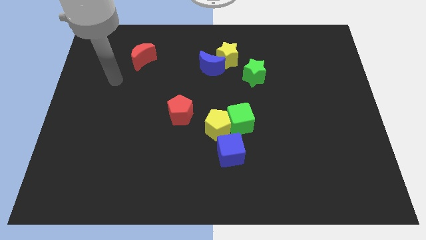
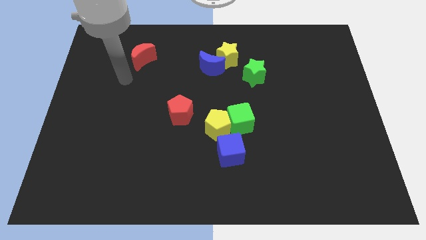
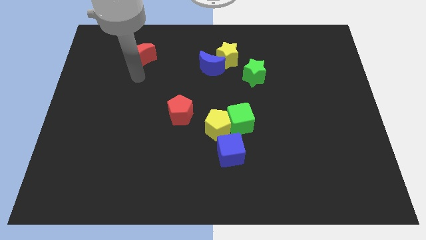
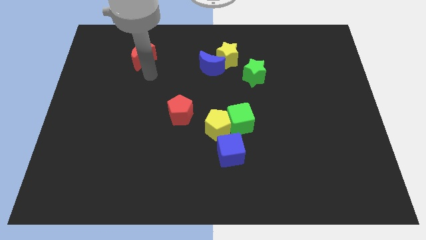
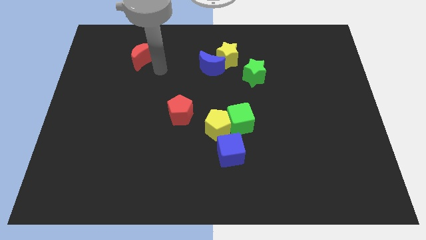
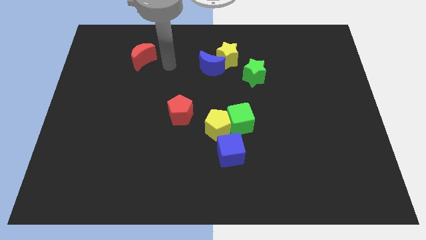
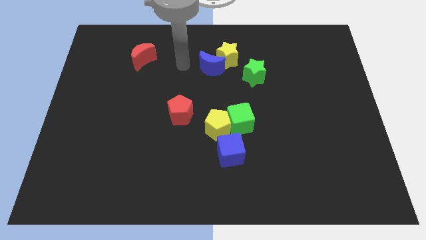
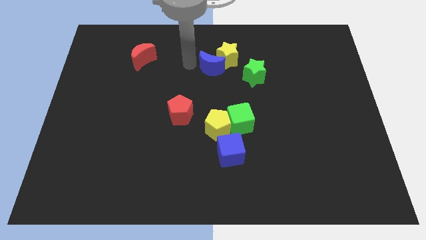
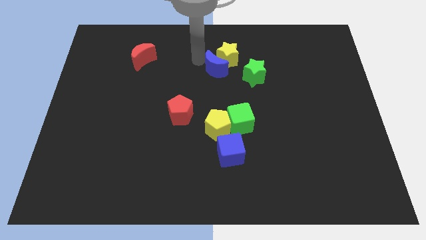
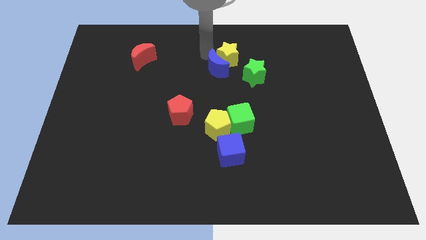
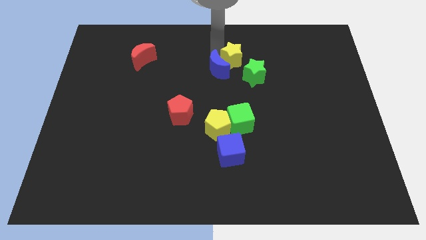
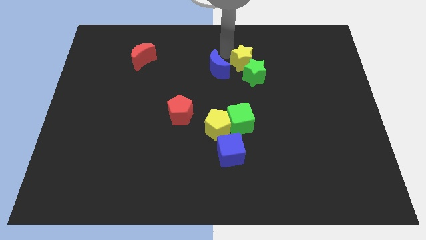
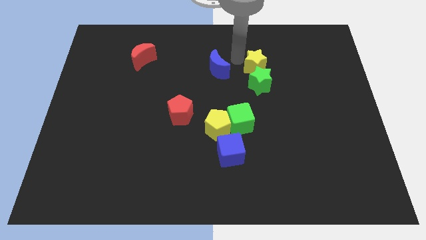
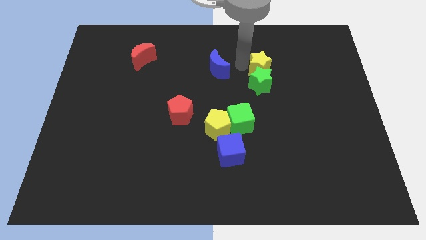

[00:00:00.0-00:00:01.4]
separate the blue moon from the yellow star

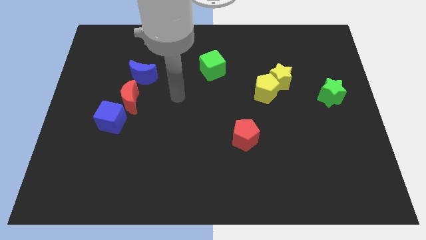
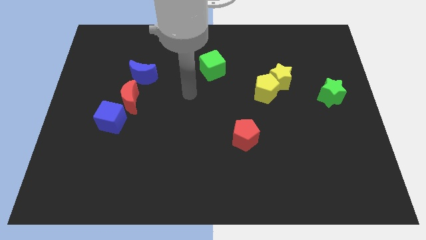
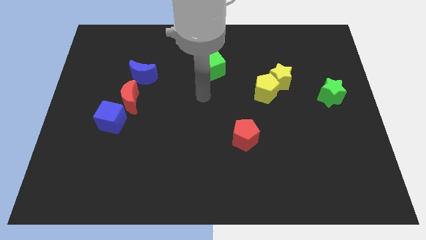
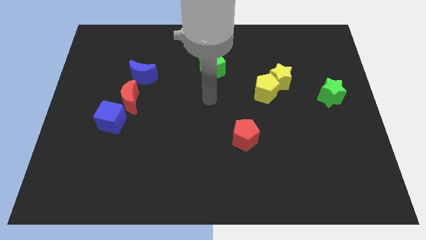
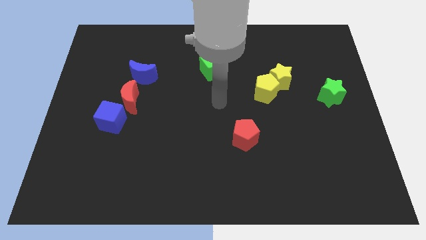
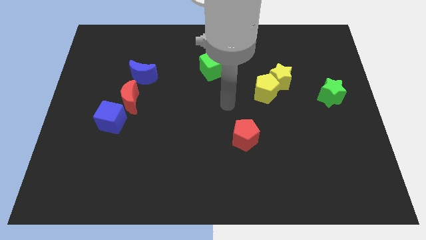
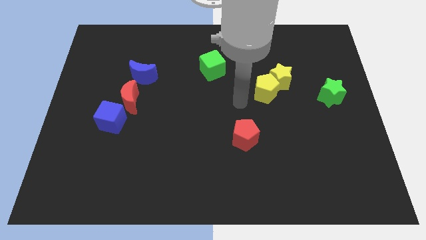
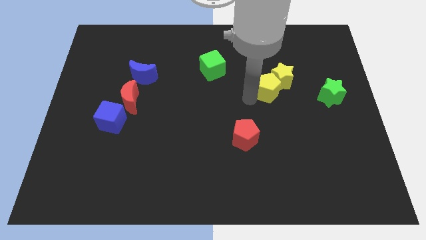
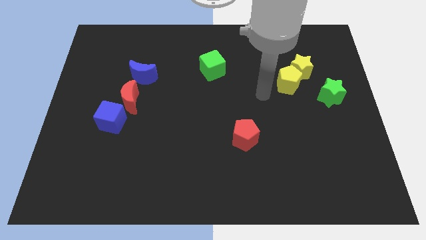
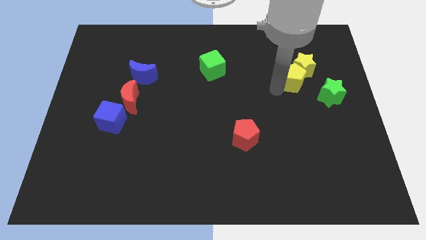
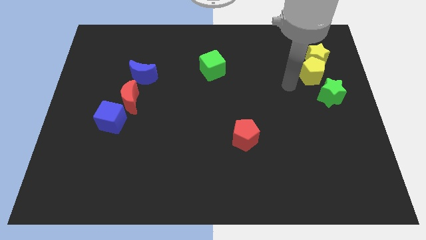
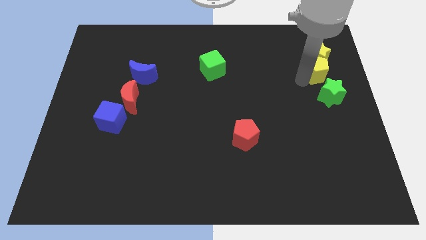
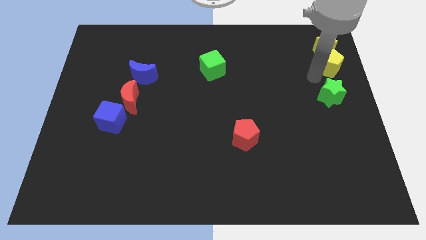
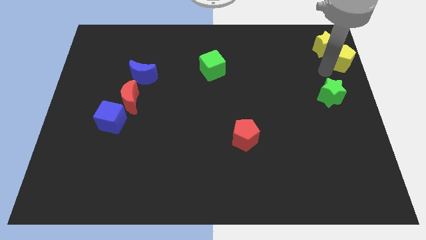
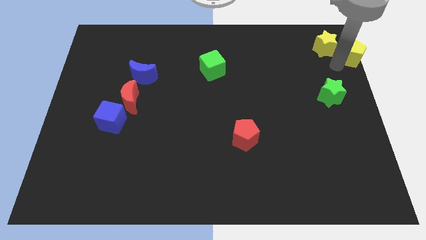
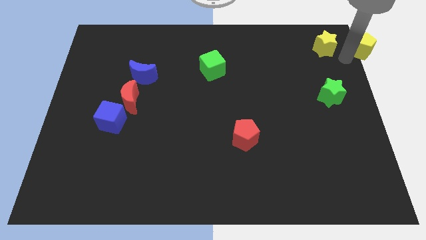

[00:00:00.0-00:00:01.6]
separate the yellow star from the yellow pentagon

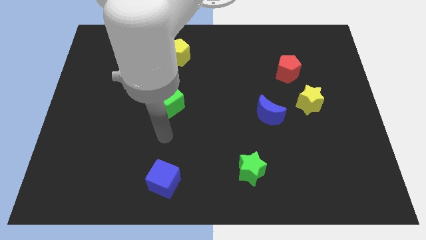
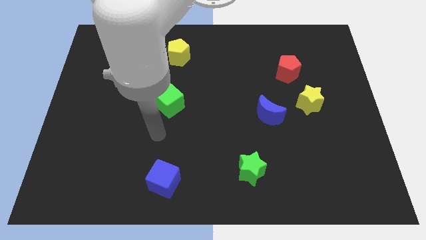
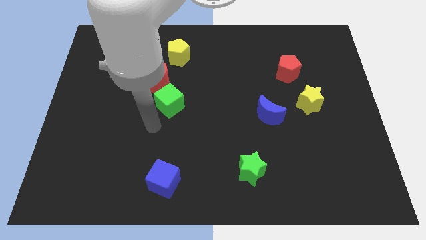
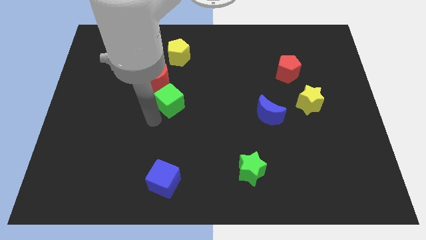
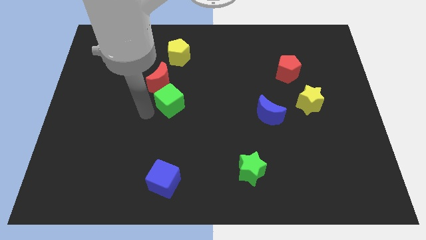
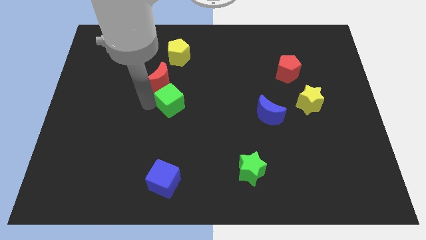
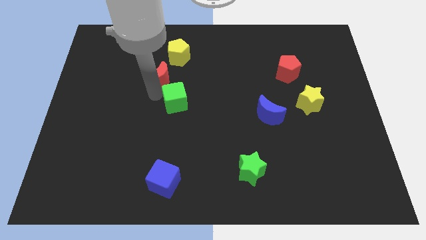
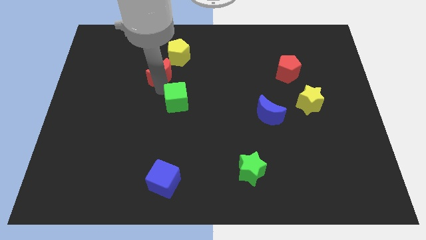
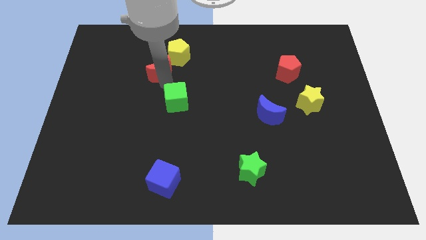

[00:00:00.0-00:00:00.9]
move the green cube away from the red moon

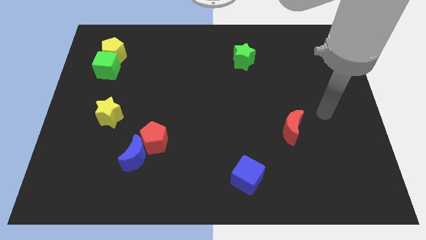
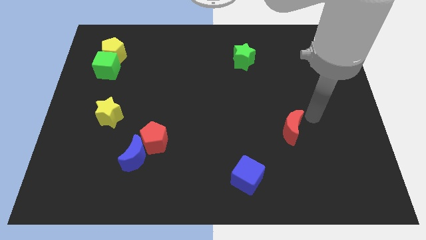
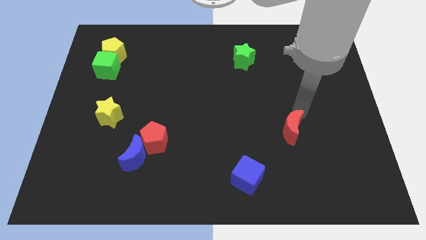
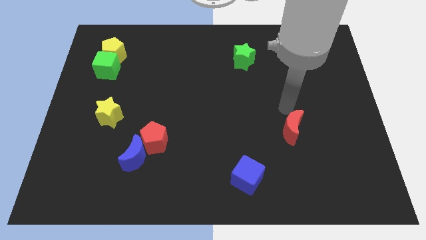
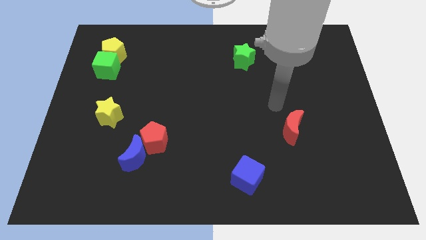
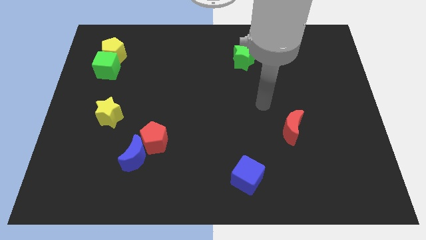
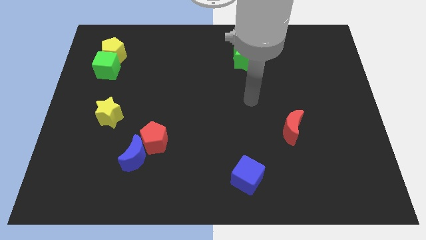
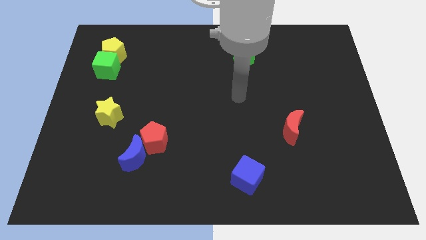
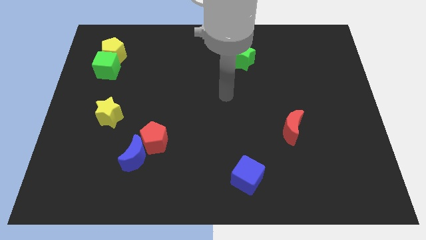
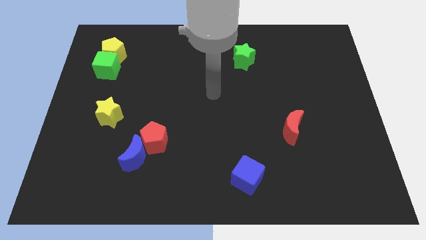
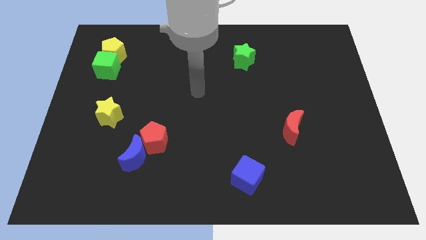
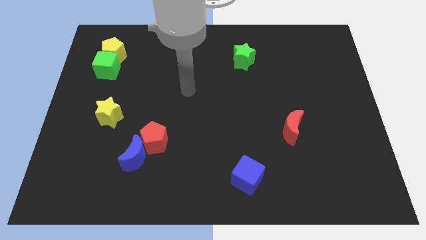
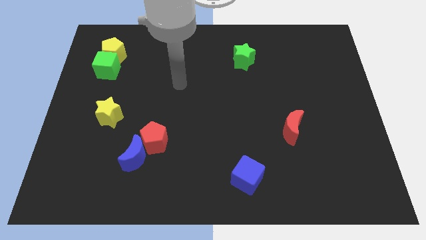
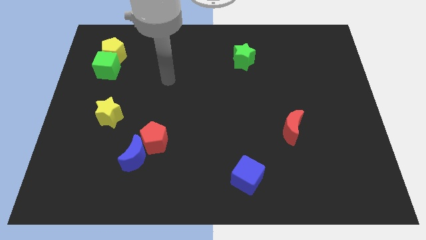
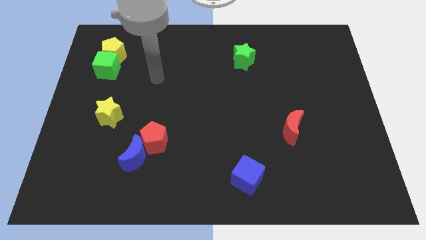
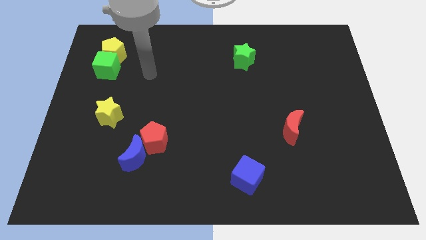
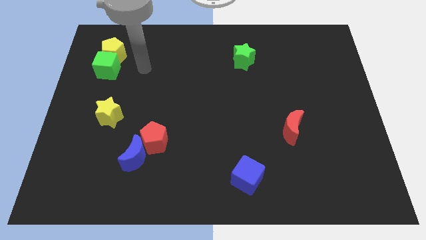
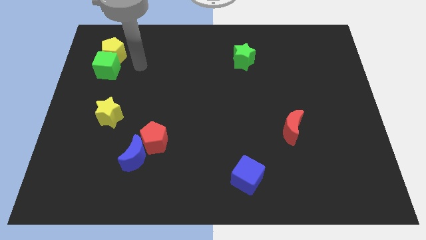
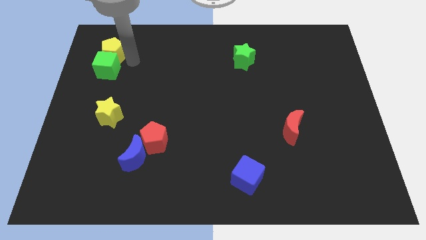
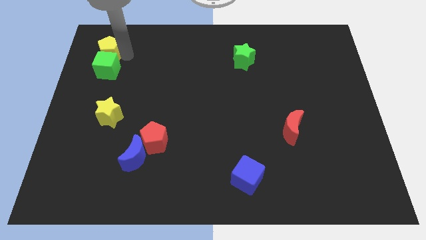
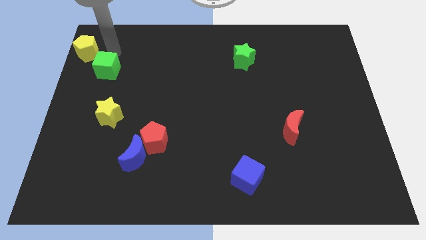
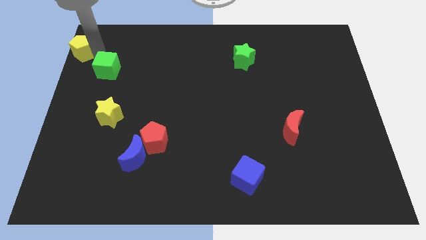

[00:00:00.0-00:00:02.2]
separate the green cube from the yellow pentagon

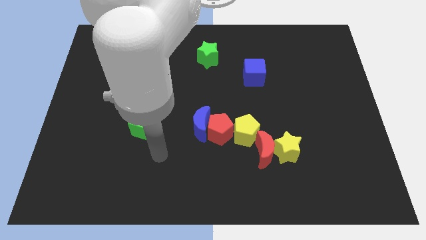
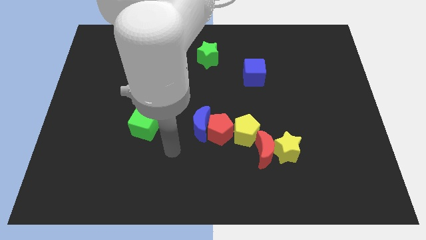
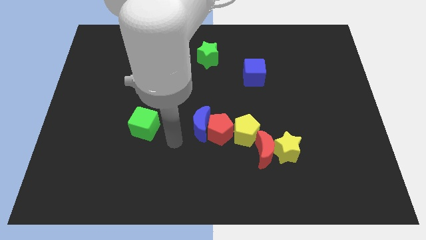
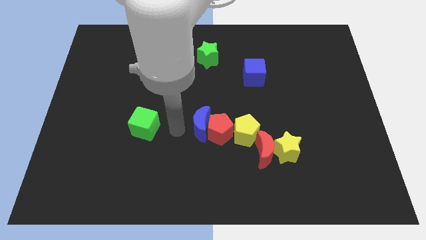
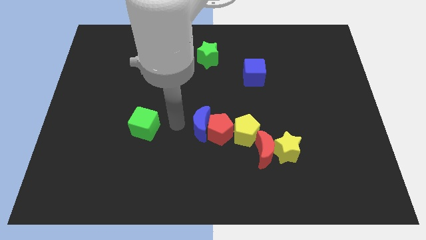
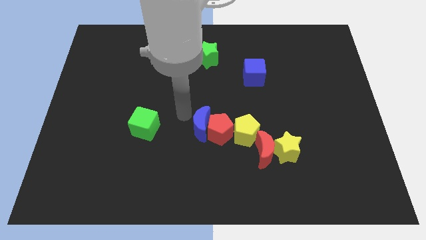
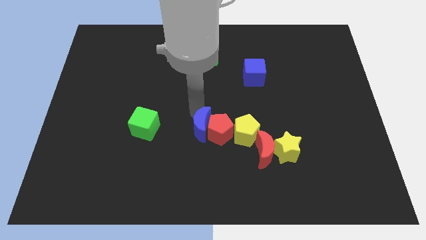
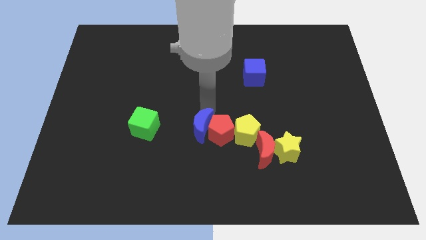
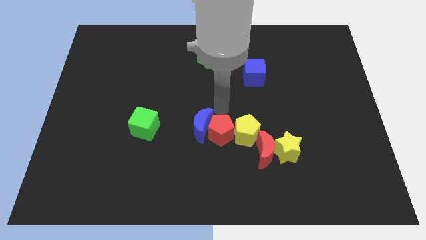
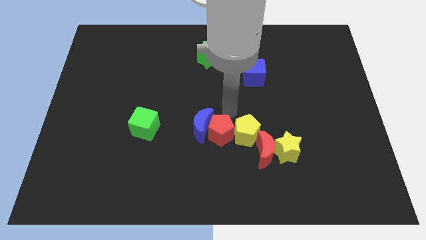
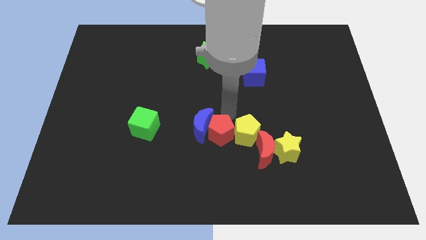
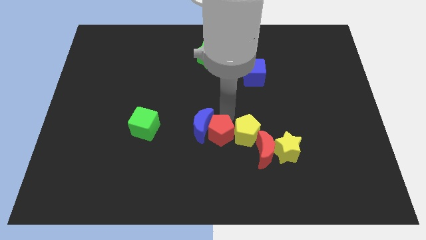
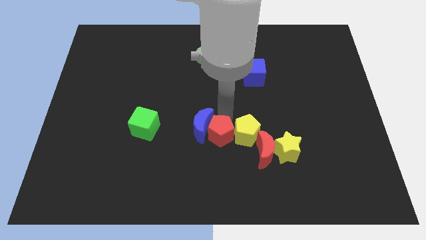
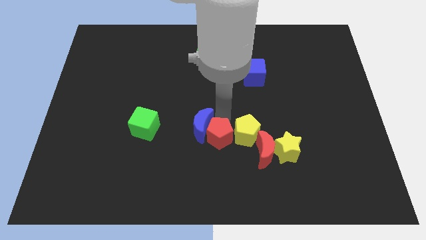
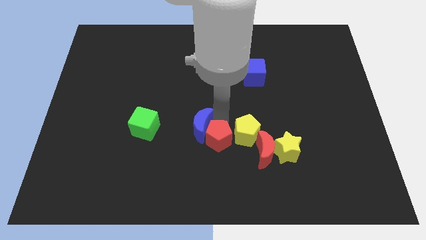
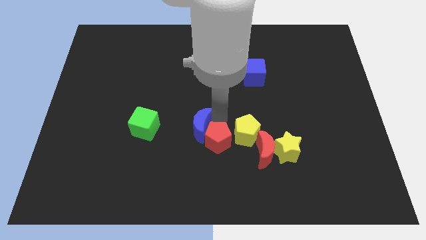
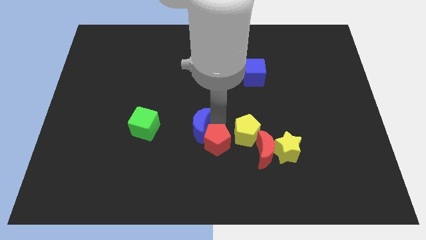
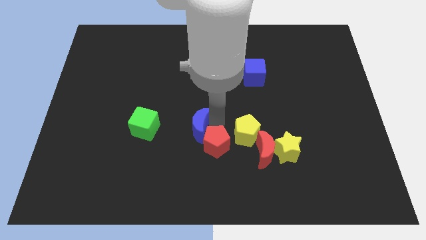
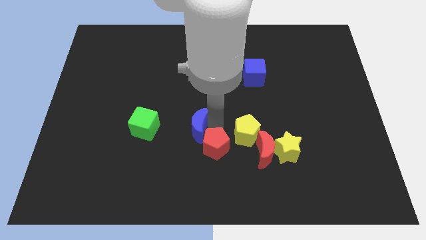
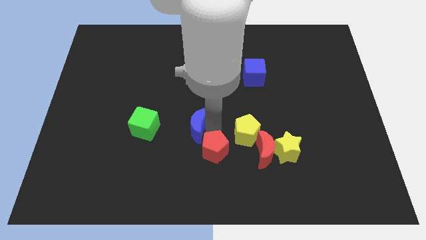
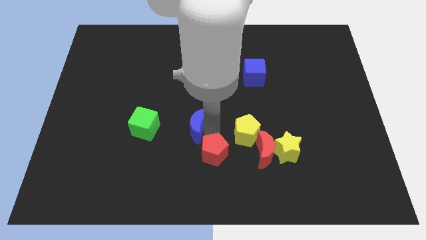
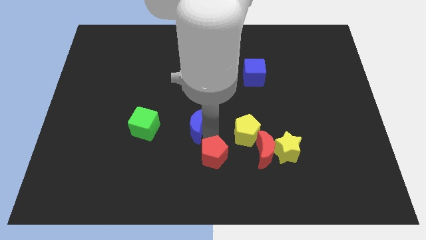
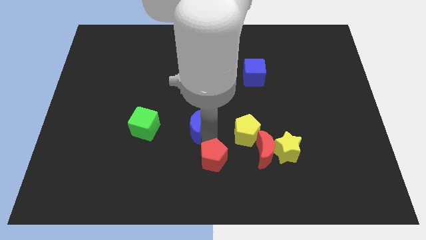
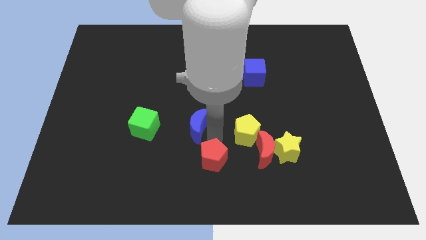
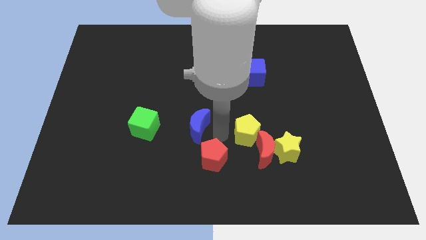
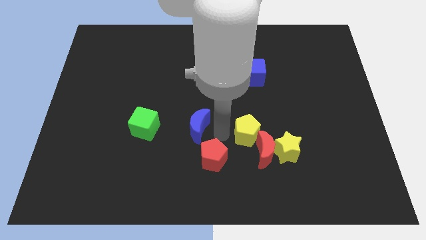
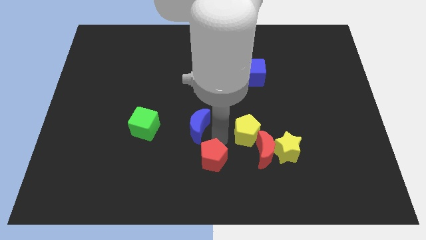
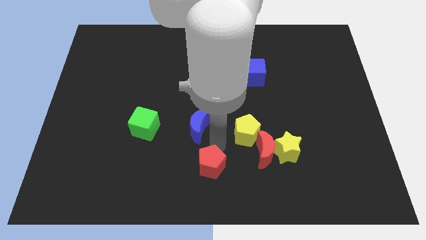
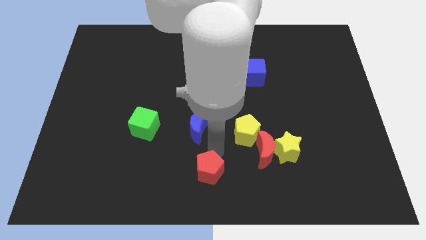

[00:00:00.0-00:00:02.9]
pull the red pentagon apart from the blue moon and yellow pentagon

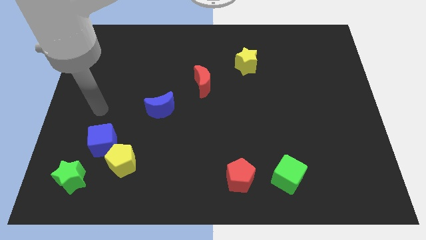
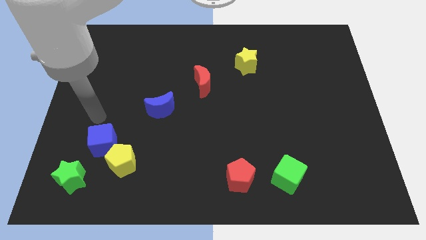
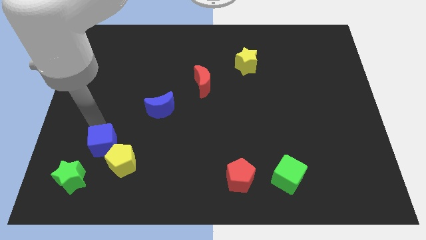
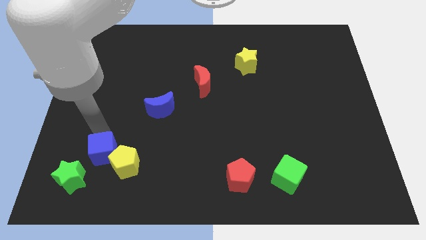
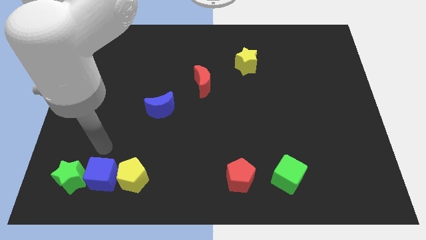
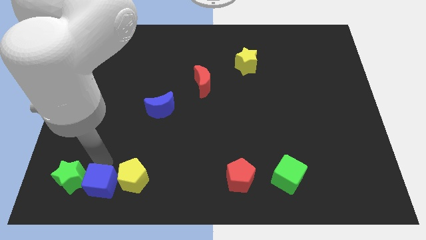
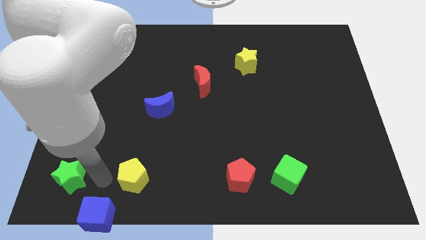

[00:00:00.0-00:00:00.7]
separate the yellow pentagon from the blue cube
